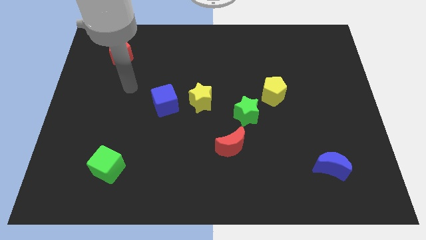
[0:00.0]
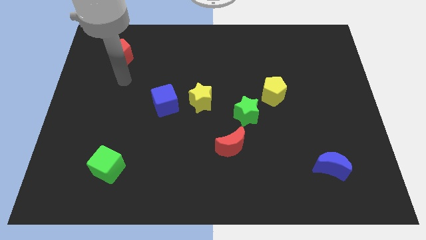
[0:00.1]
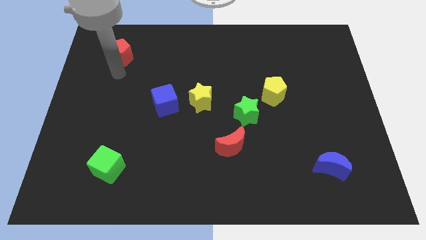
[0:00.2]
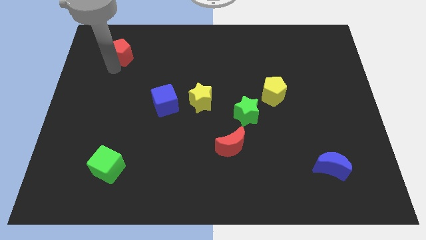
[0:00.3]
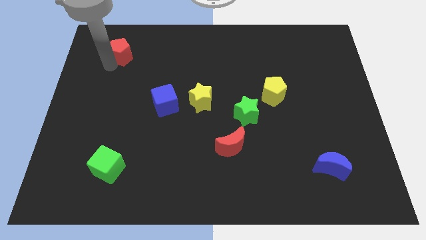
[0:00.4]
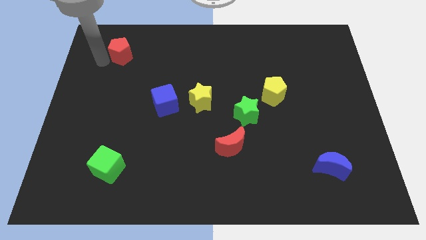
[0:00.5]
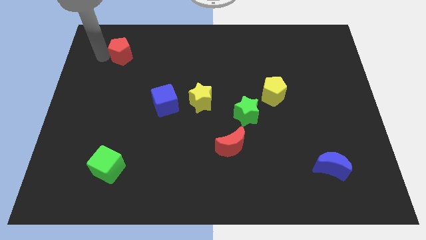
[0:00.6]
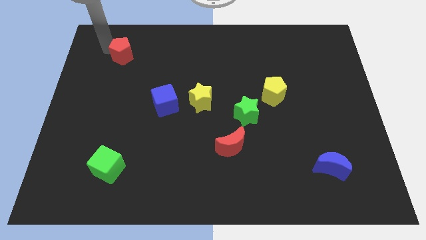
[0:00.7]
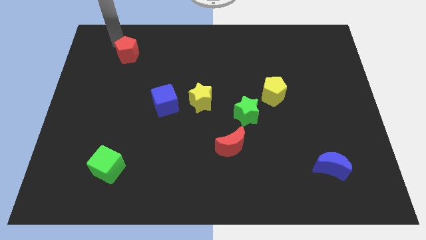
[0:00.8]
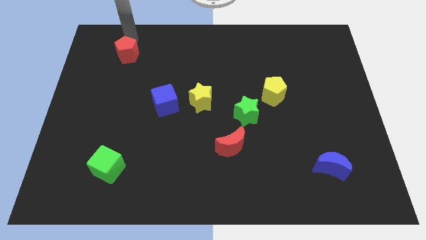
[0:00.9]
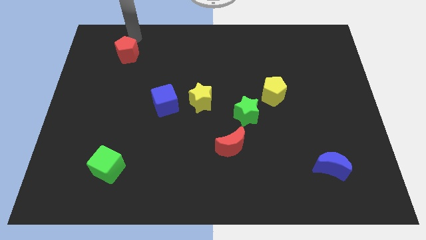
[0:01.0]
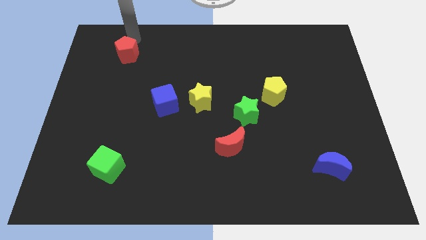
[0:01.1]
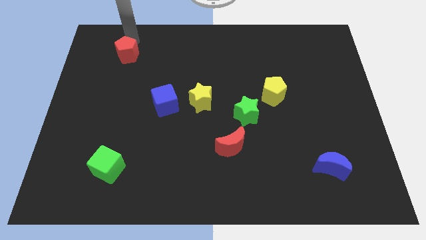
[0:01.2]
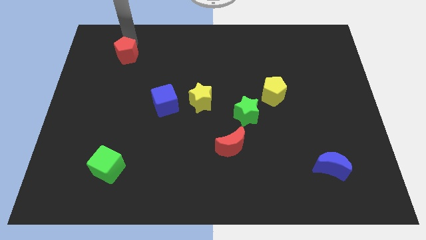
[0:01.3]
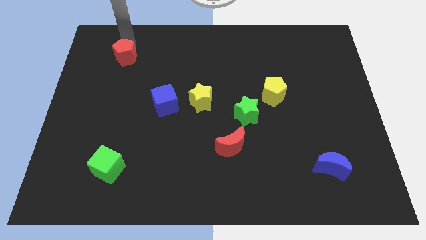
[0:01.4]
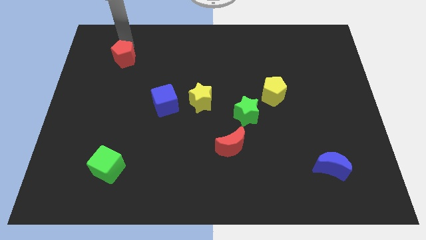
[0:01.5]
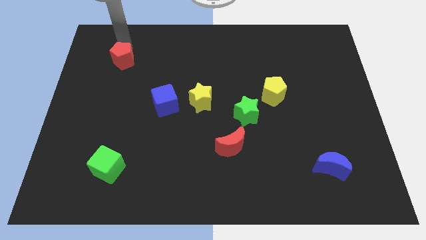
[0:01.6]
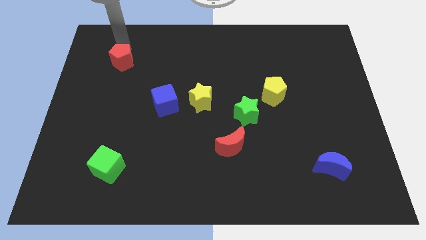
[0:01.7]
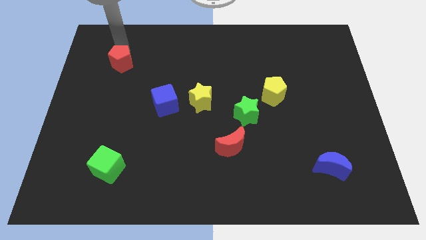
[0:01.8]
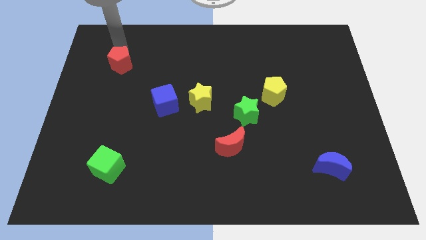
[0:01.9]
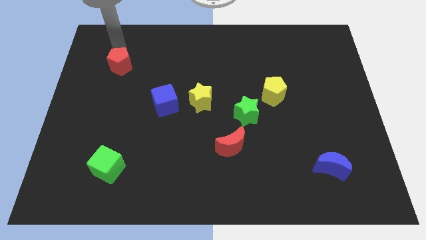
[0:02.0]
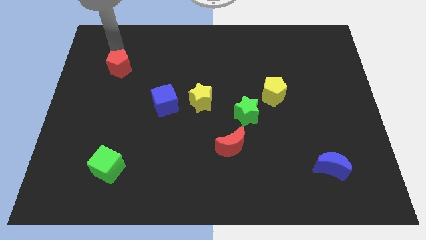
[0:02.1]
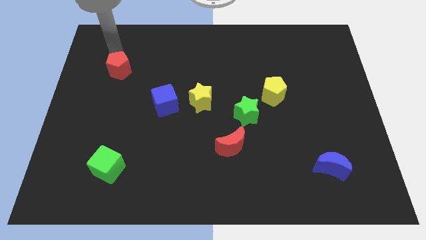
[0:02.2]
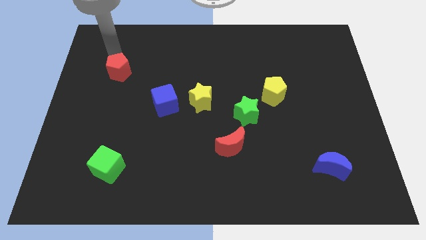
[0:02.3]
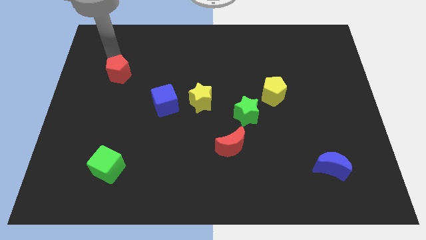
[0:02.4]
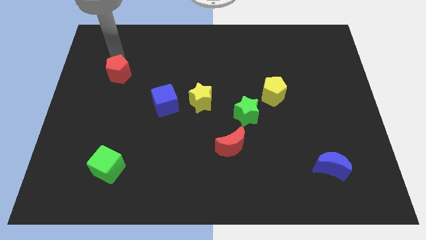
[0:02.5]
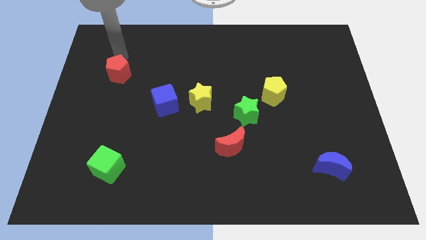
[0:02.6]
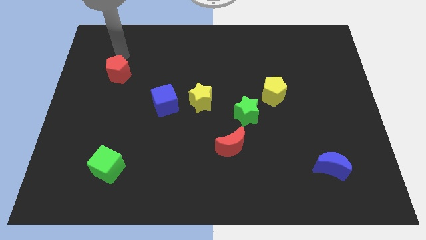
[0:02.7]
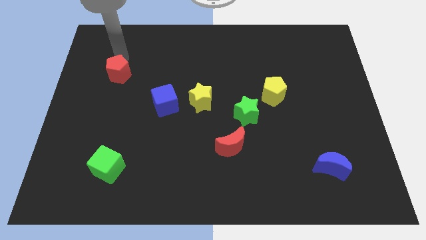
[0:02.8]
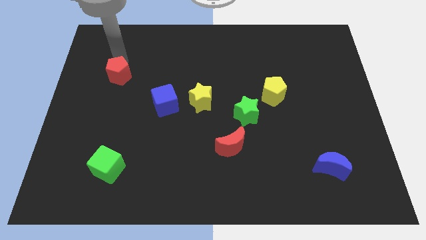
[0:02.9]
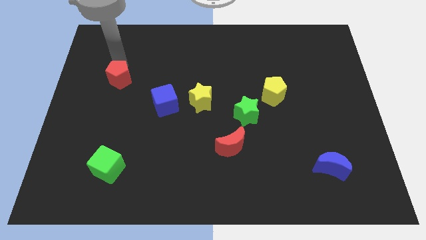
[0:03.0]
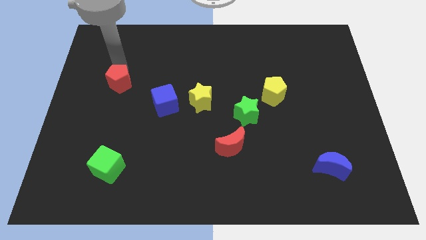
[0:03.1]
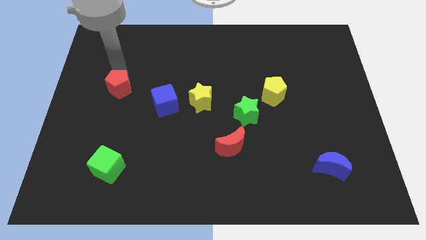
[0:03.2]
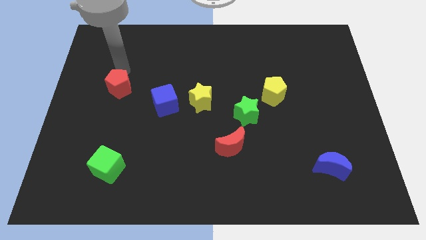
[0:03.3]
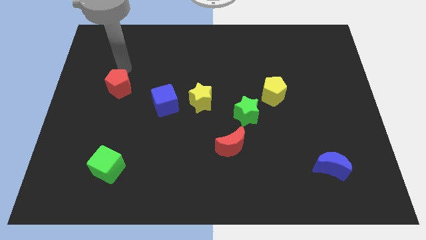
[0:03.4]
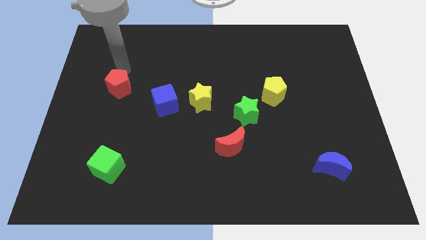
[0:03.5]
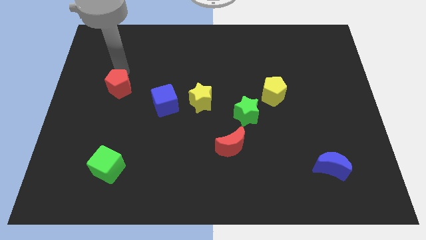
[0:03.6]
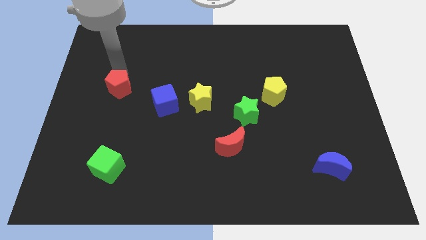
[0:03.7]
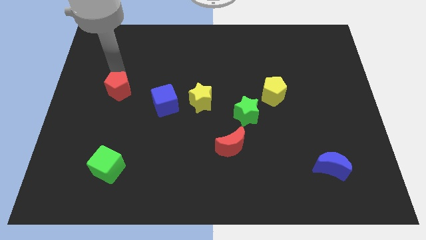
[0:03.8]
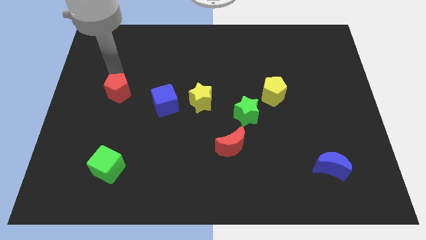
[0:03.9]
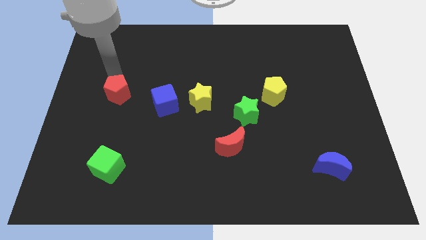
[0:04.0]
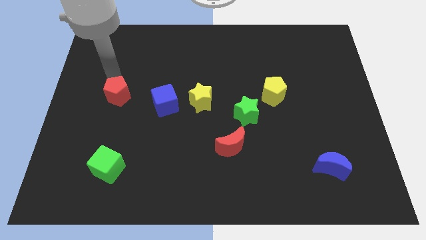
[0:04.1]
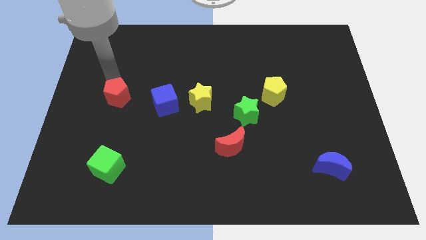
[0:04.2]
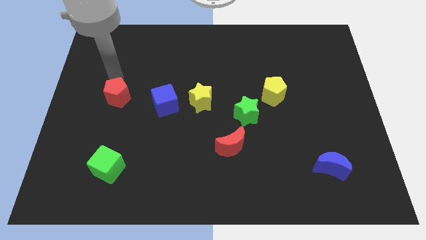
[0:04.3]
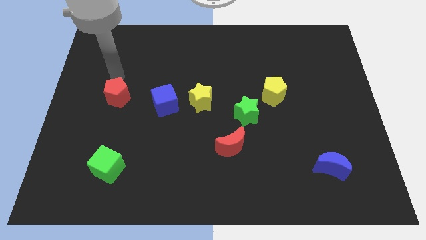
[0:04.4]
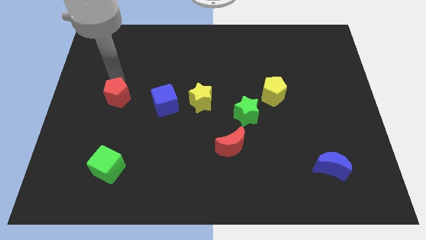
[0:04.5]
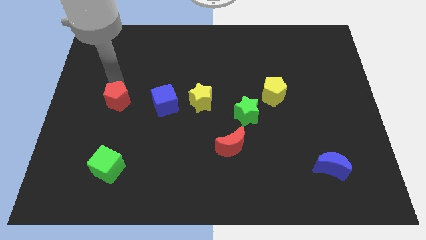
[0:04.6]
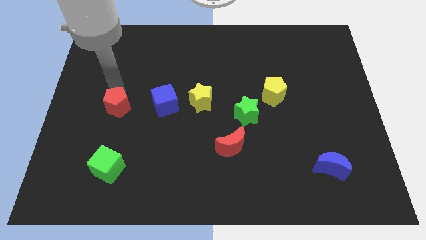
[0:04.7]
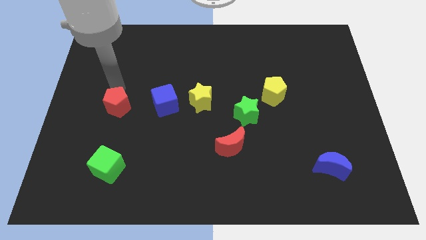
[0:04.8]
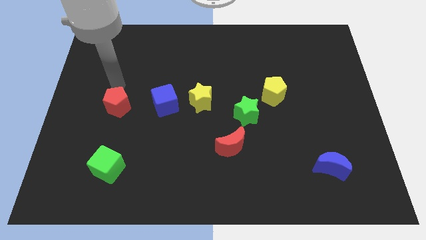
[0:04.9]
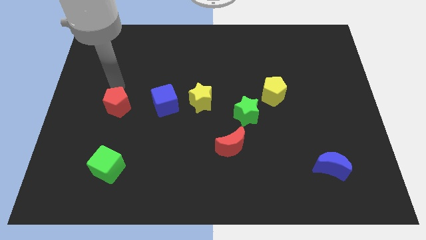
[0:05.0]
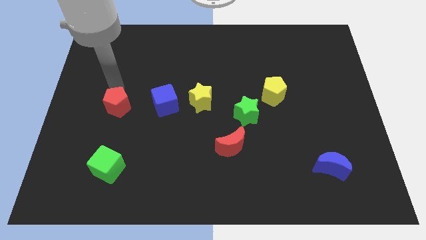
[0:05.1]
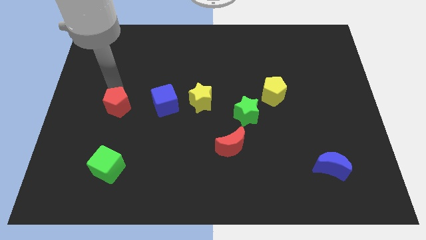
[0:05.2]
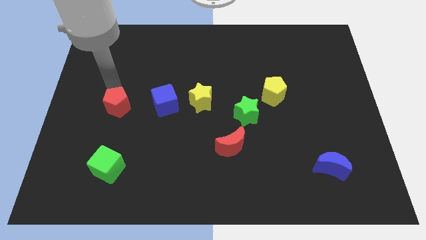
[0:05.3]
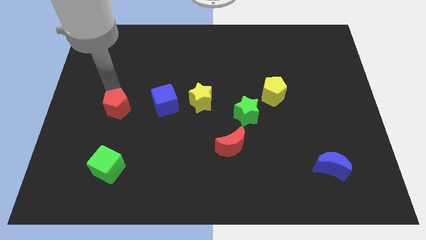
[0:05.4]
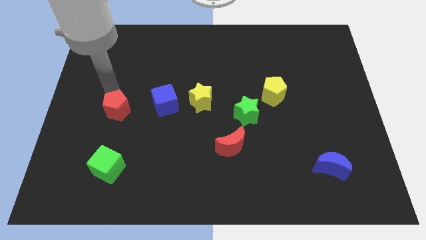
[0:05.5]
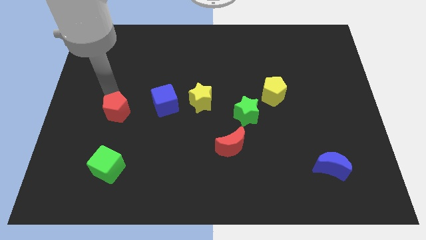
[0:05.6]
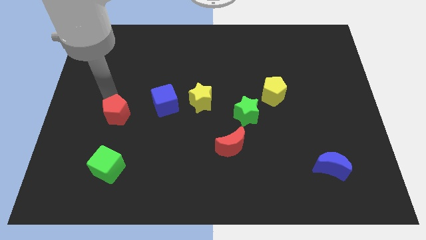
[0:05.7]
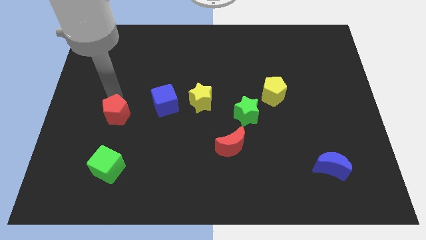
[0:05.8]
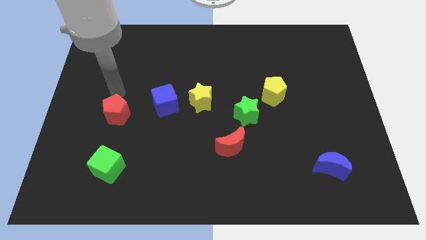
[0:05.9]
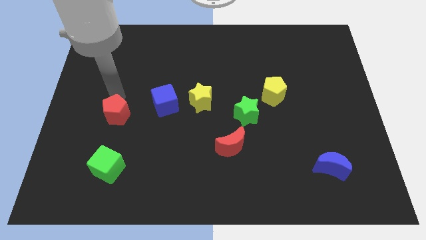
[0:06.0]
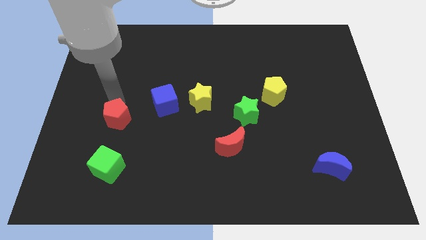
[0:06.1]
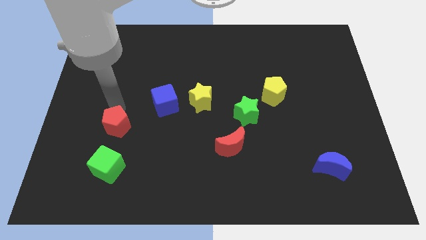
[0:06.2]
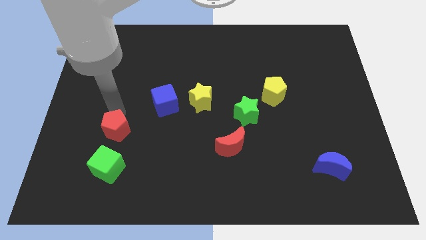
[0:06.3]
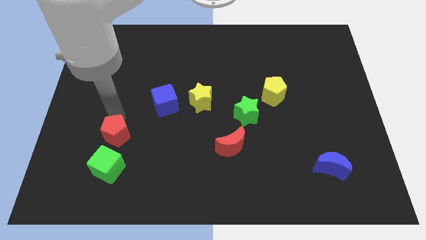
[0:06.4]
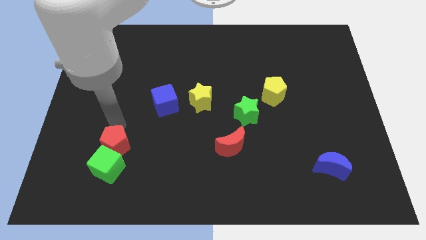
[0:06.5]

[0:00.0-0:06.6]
put the red pentagon towards the green cube
